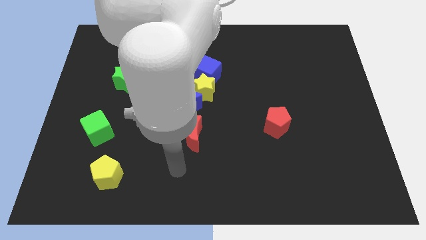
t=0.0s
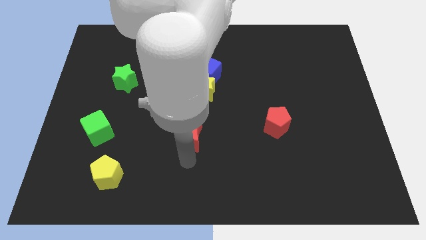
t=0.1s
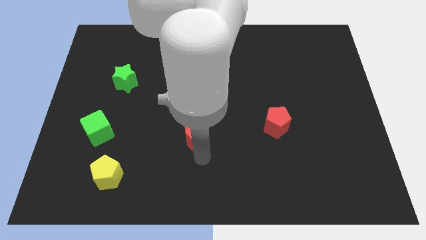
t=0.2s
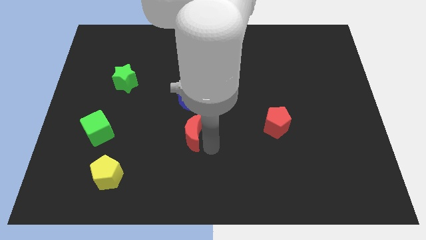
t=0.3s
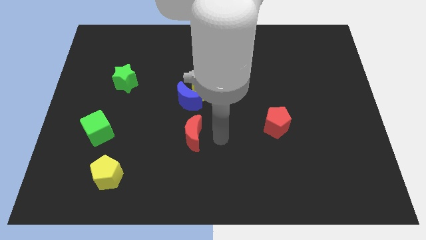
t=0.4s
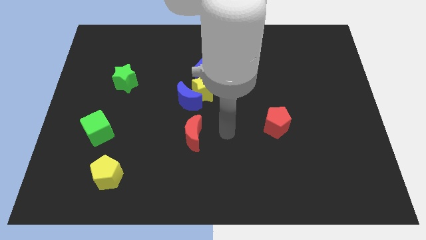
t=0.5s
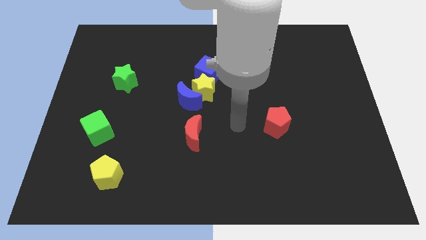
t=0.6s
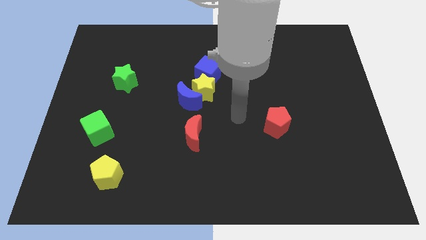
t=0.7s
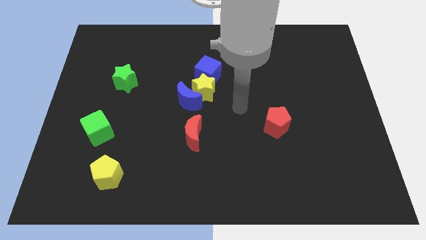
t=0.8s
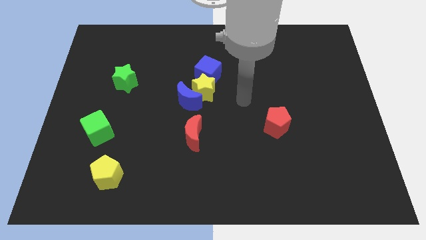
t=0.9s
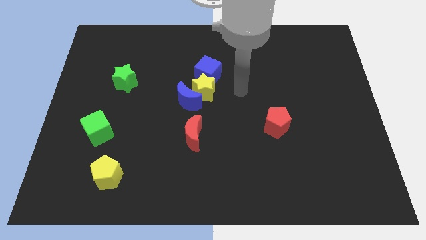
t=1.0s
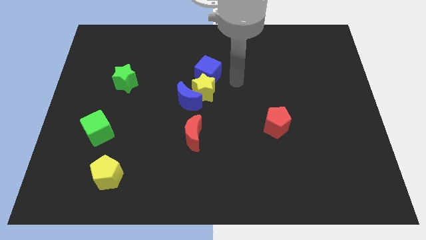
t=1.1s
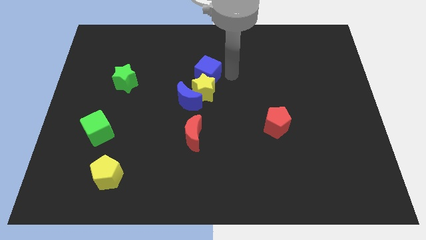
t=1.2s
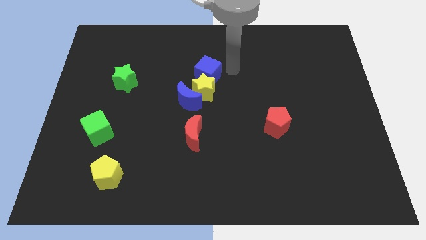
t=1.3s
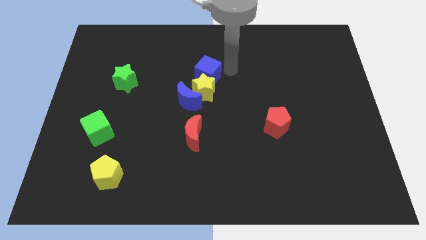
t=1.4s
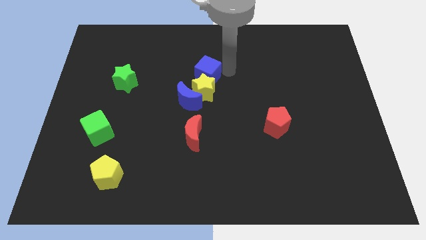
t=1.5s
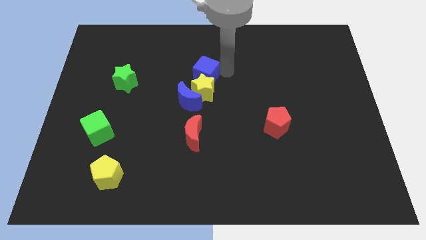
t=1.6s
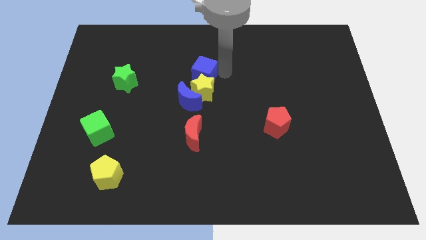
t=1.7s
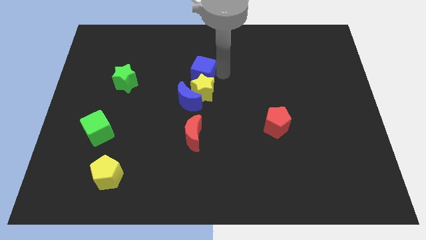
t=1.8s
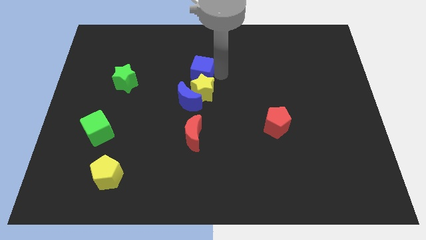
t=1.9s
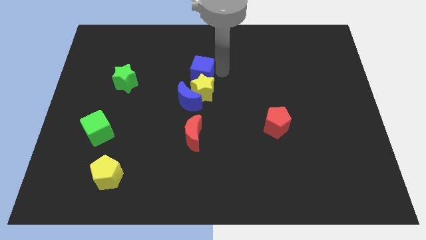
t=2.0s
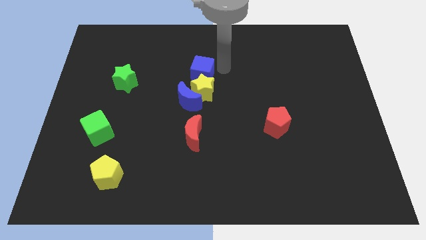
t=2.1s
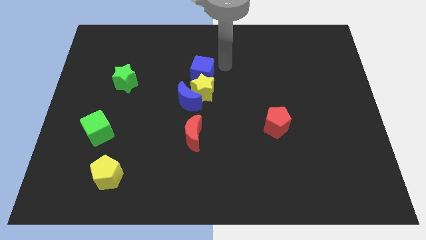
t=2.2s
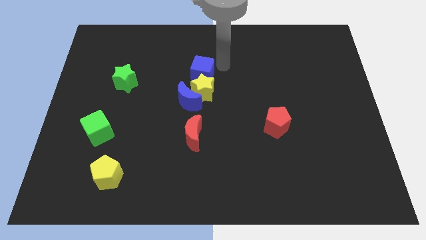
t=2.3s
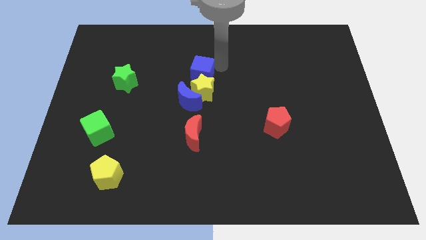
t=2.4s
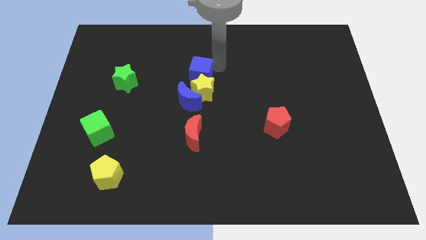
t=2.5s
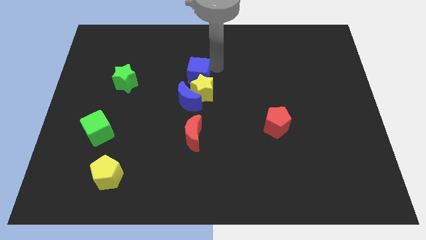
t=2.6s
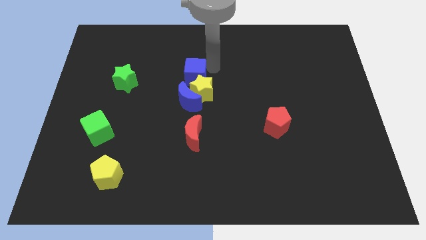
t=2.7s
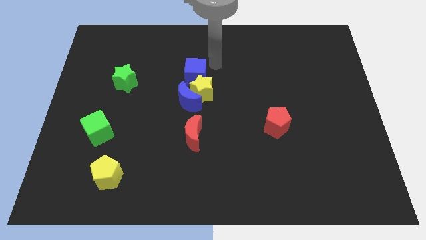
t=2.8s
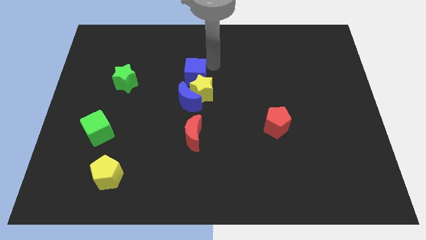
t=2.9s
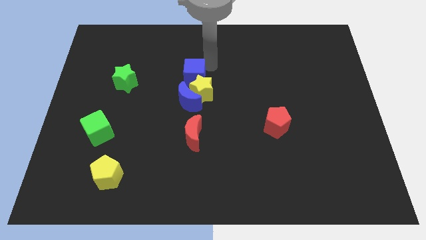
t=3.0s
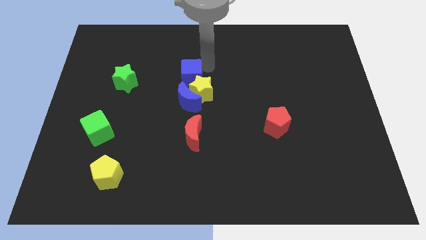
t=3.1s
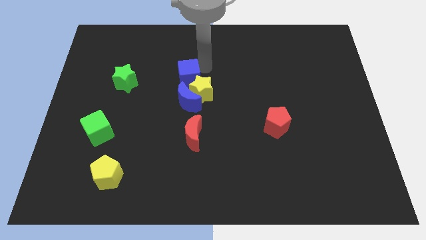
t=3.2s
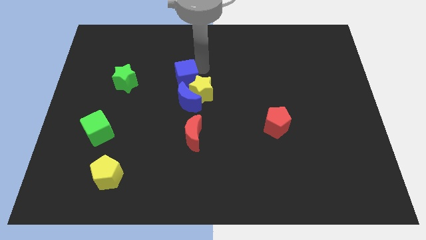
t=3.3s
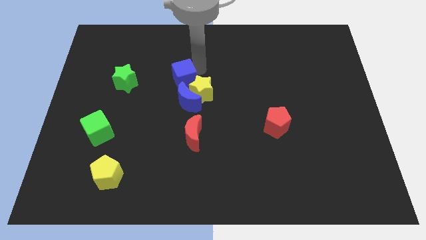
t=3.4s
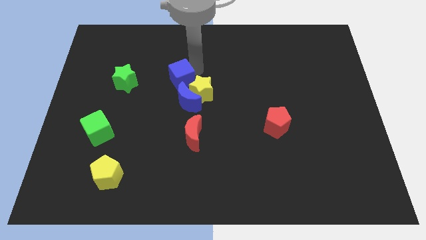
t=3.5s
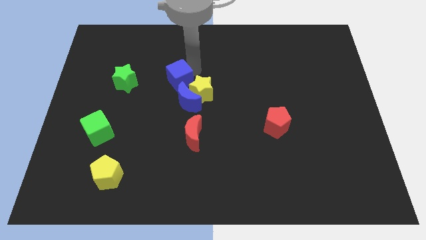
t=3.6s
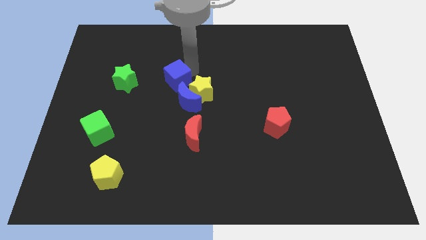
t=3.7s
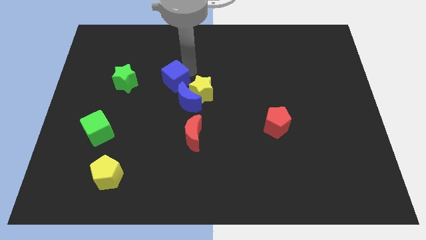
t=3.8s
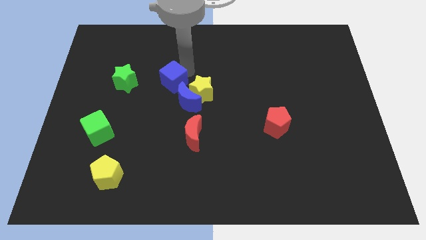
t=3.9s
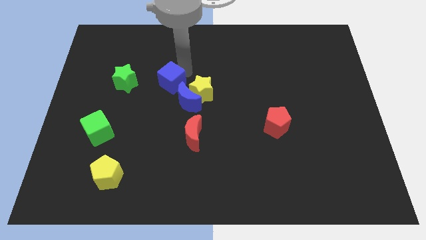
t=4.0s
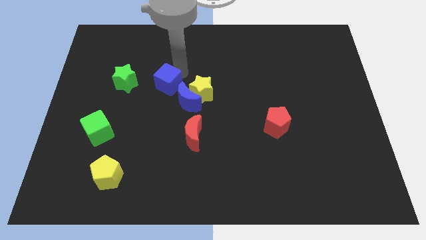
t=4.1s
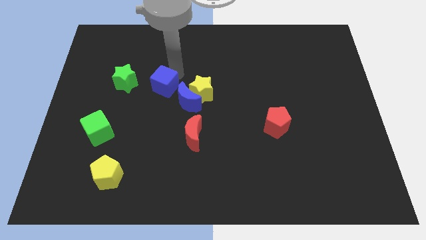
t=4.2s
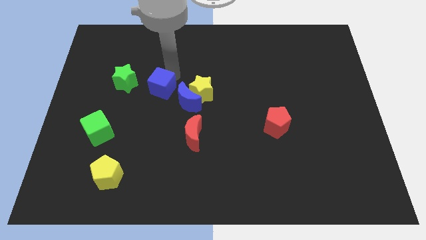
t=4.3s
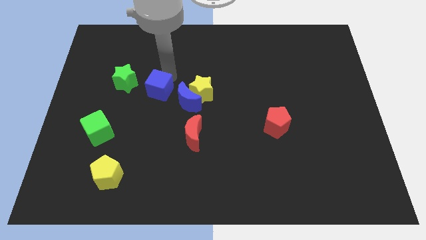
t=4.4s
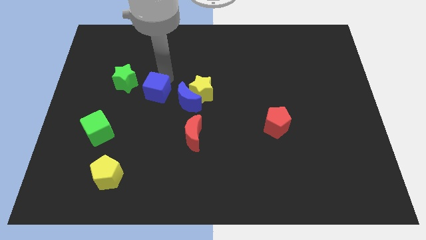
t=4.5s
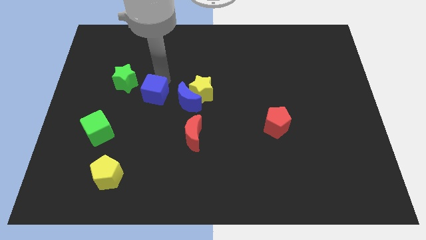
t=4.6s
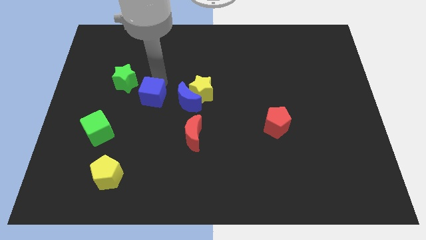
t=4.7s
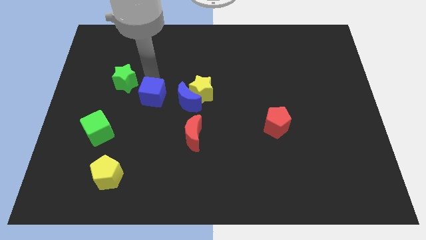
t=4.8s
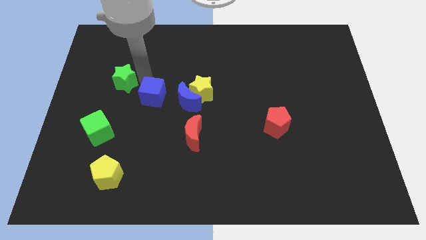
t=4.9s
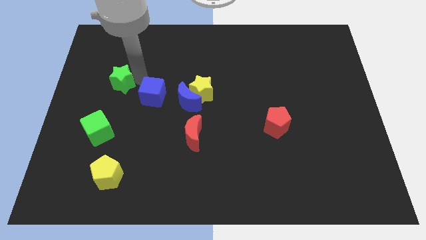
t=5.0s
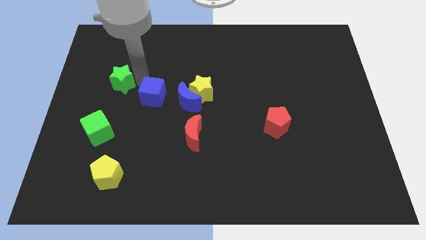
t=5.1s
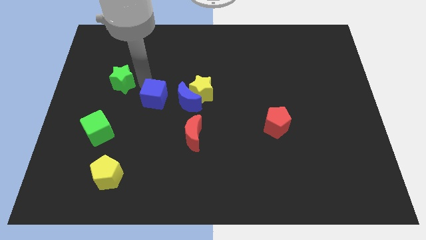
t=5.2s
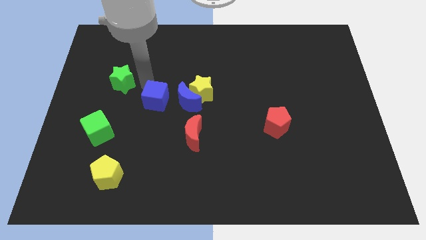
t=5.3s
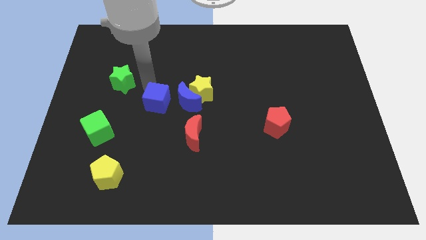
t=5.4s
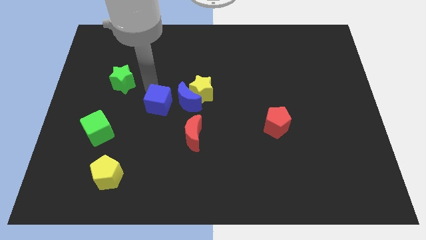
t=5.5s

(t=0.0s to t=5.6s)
slide the blue cube to the top left side of the red moon

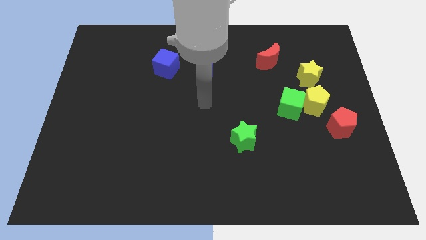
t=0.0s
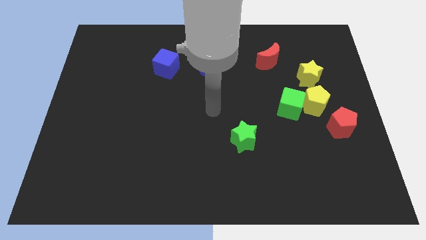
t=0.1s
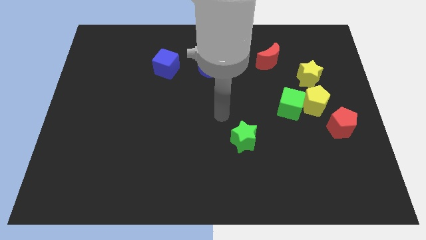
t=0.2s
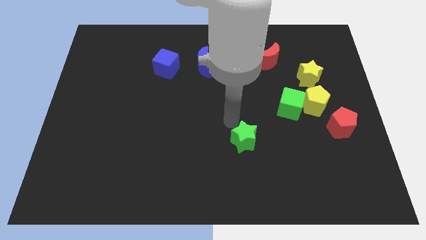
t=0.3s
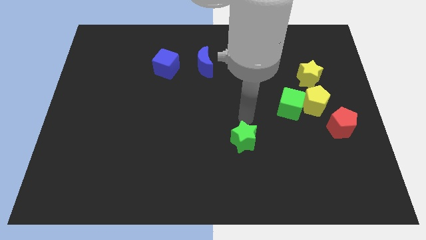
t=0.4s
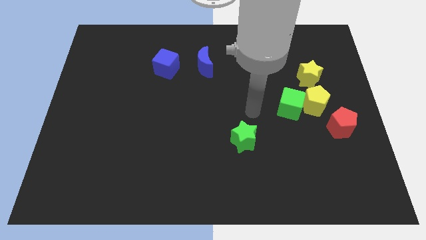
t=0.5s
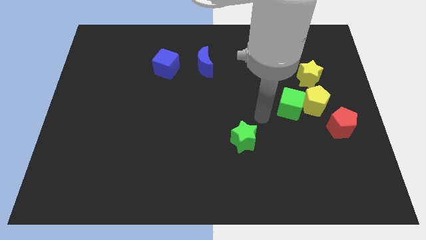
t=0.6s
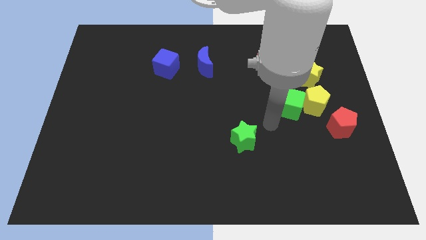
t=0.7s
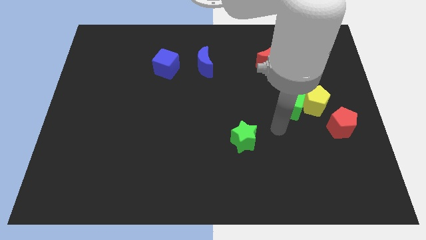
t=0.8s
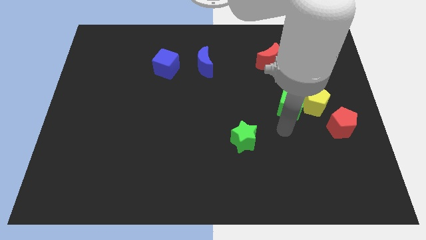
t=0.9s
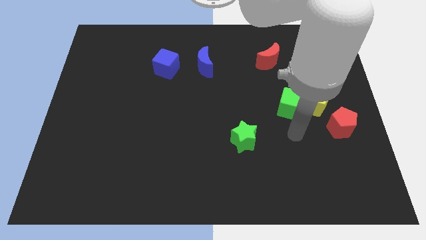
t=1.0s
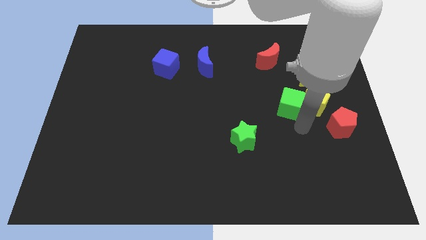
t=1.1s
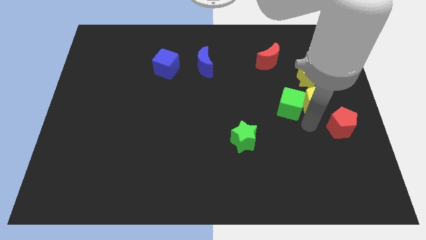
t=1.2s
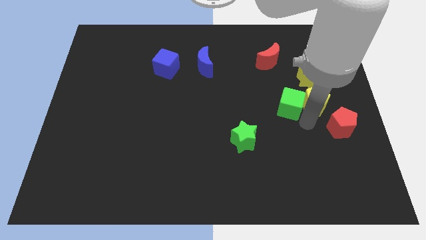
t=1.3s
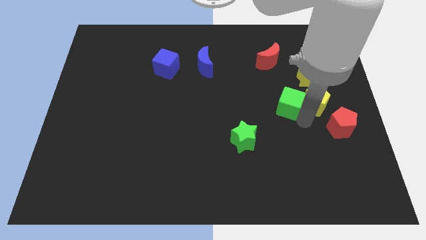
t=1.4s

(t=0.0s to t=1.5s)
push the green cube below the red moon

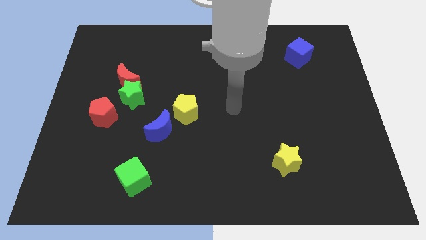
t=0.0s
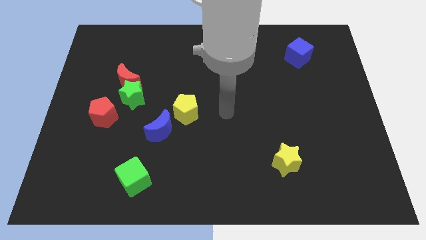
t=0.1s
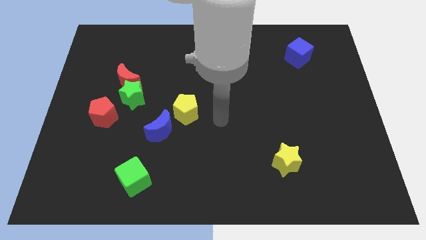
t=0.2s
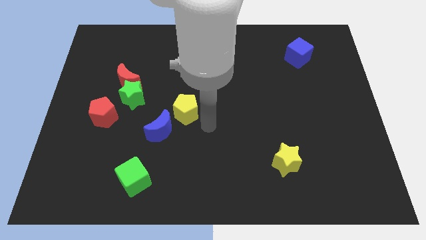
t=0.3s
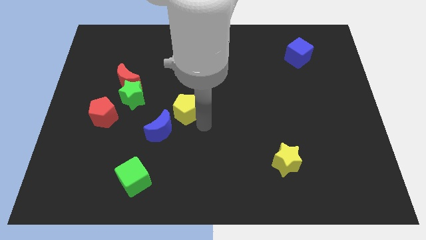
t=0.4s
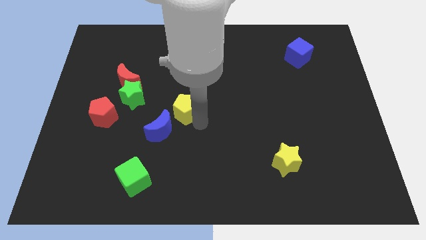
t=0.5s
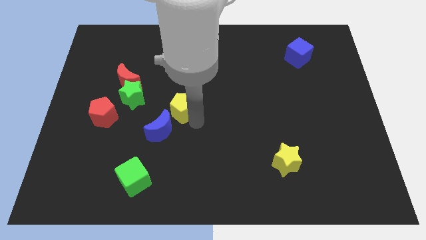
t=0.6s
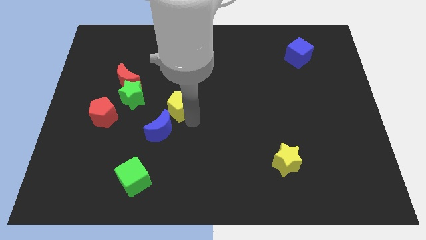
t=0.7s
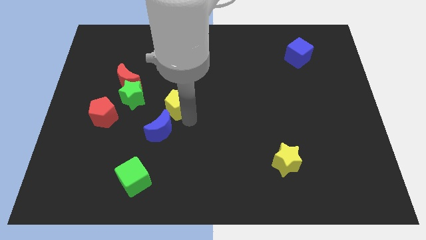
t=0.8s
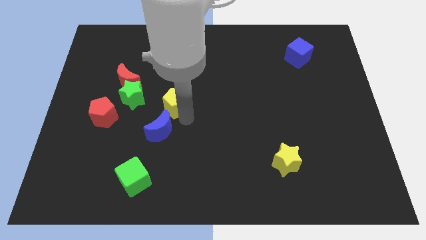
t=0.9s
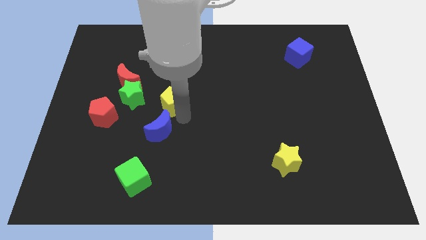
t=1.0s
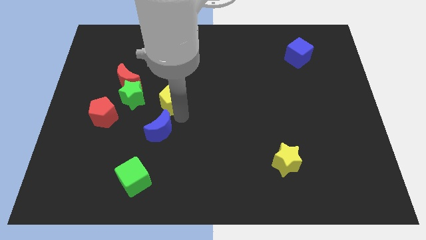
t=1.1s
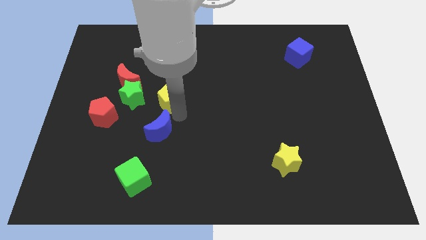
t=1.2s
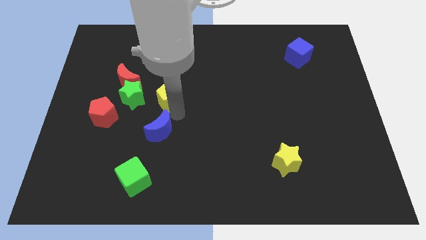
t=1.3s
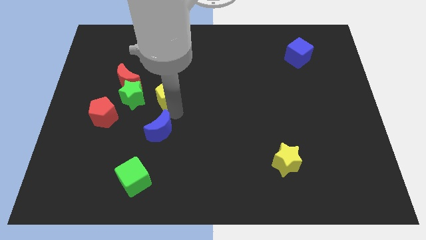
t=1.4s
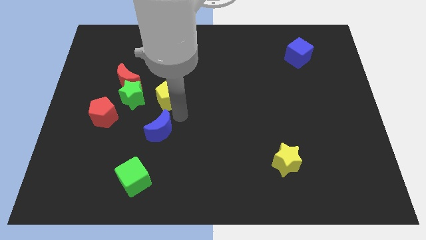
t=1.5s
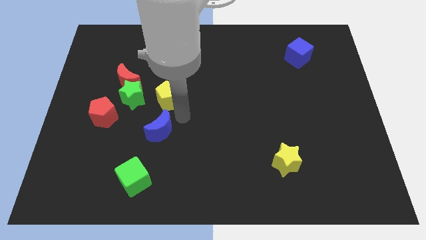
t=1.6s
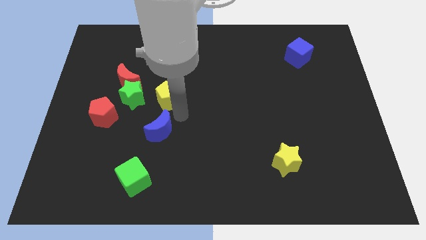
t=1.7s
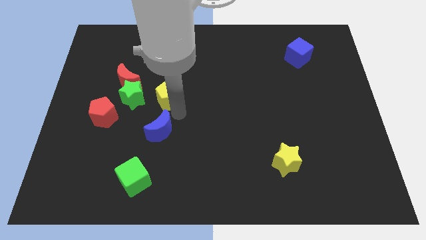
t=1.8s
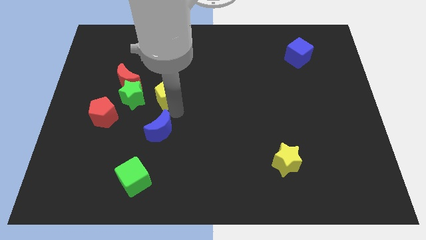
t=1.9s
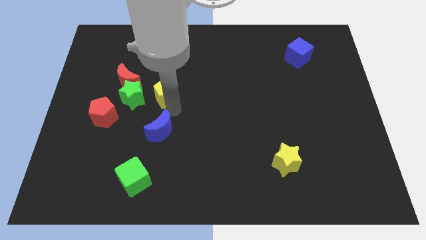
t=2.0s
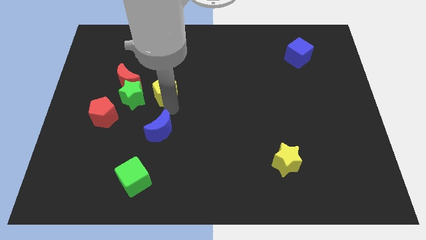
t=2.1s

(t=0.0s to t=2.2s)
put the yellow pentagon diagonally up and to the right of the green star
